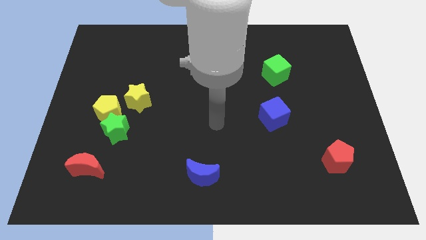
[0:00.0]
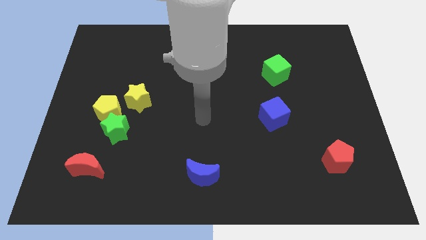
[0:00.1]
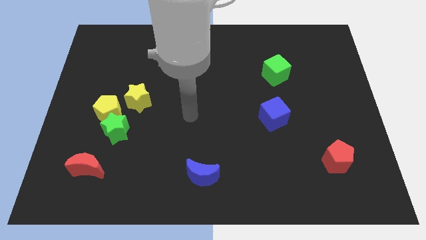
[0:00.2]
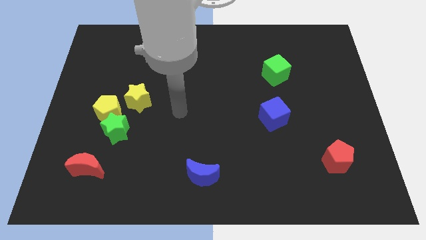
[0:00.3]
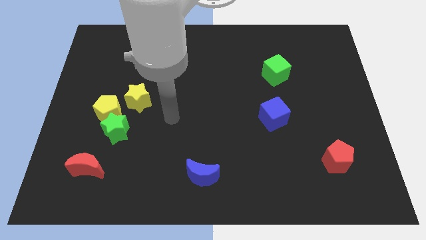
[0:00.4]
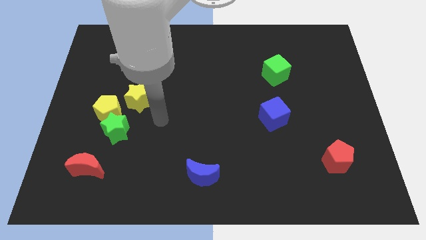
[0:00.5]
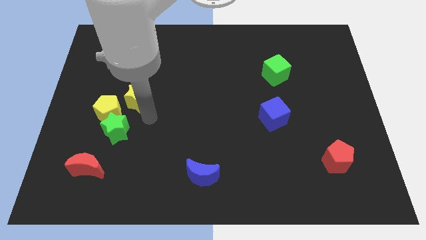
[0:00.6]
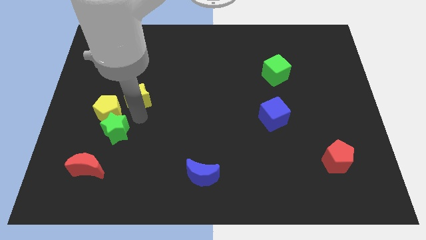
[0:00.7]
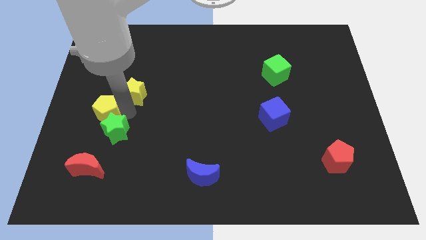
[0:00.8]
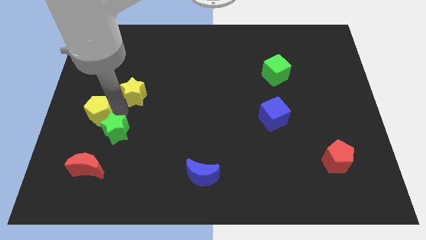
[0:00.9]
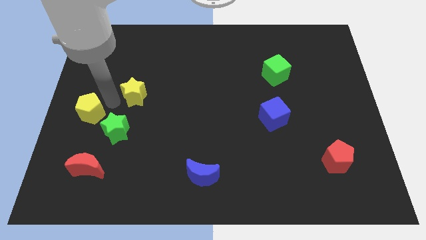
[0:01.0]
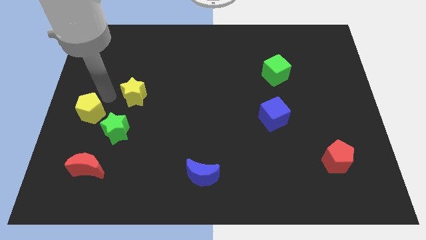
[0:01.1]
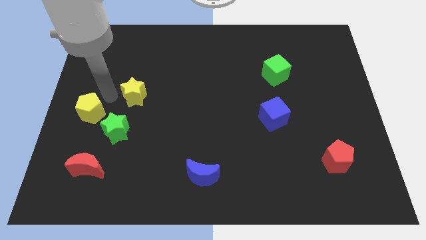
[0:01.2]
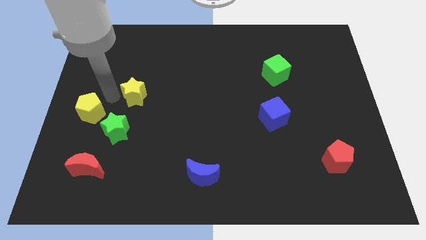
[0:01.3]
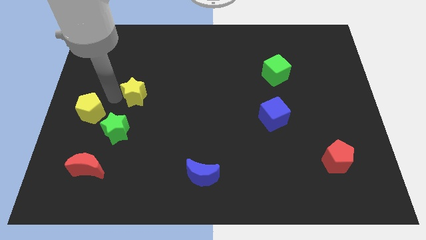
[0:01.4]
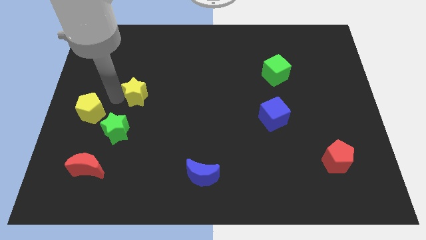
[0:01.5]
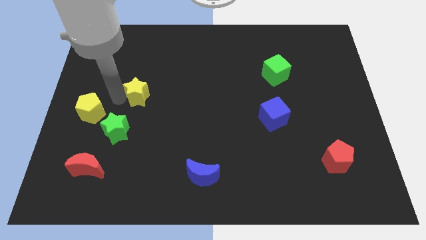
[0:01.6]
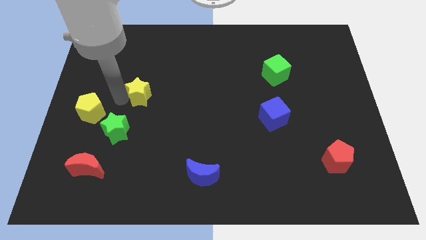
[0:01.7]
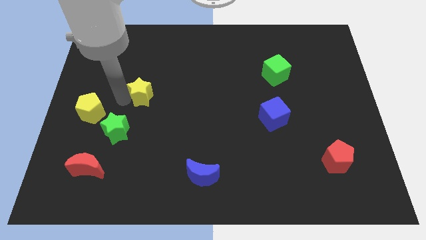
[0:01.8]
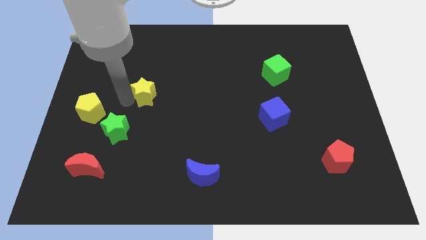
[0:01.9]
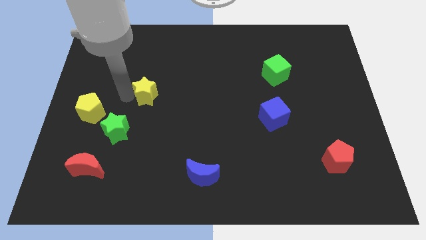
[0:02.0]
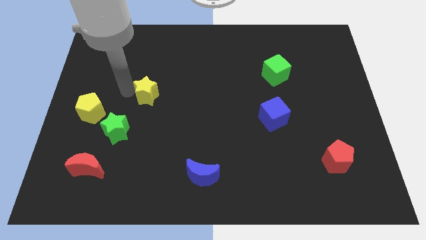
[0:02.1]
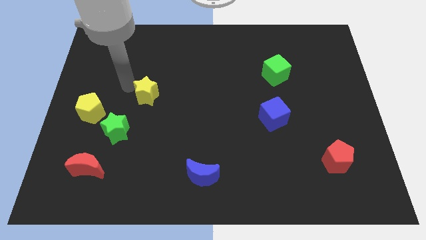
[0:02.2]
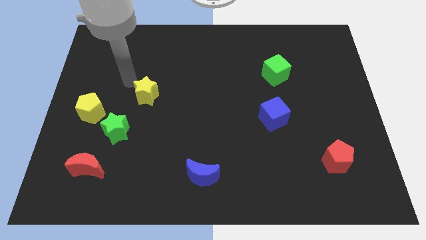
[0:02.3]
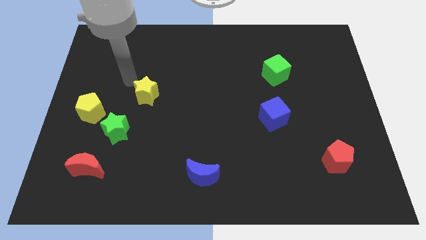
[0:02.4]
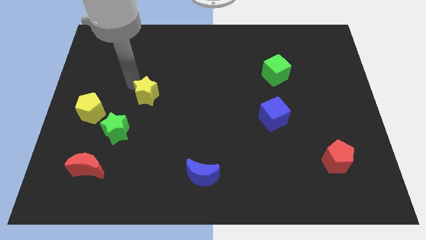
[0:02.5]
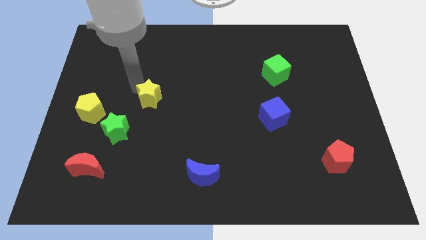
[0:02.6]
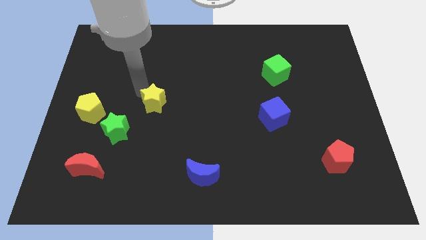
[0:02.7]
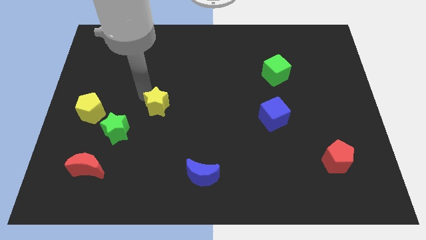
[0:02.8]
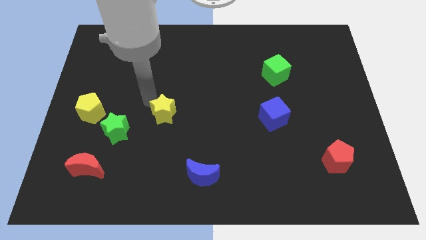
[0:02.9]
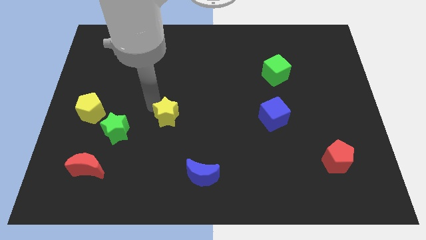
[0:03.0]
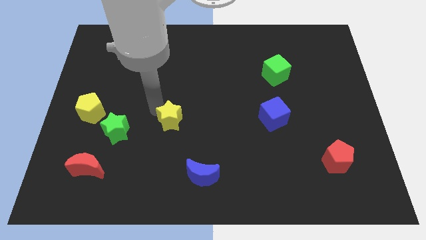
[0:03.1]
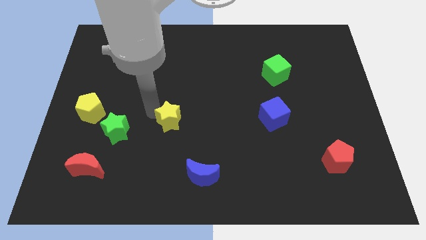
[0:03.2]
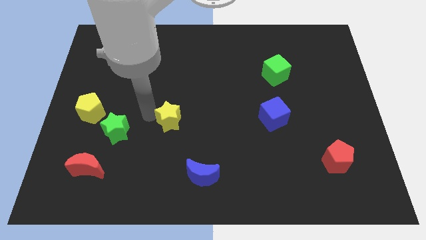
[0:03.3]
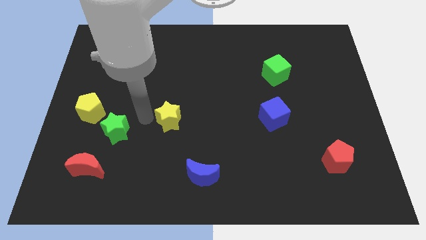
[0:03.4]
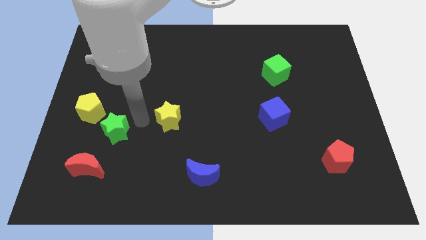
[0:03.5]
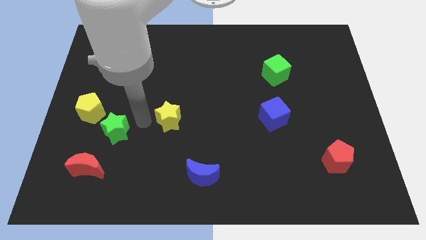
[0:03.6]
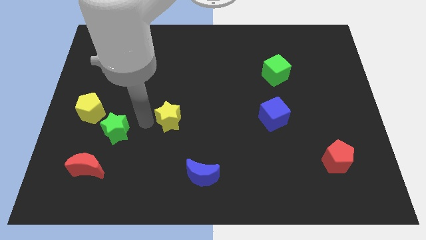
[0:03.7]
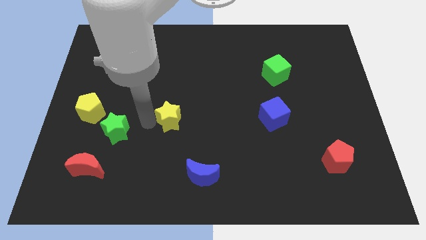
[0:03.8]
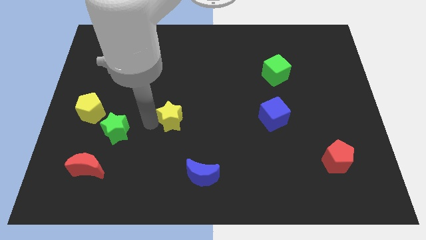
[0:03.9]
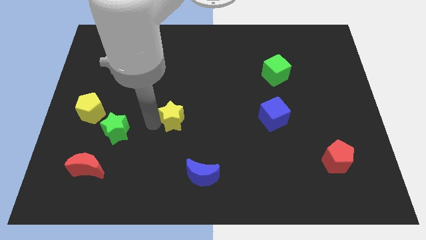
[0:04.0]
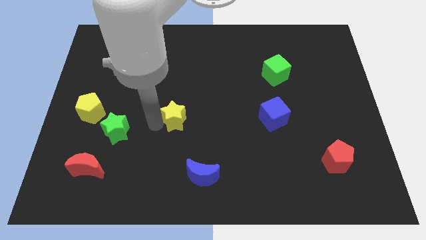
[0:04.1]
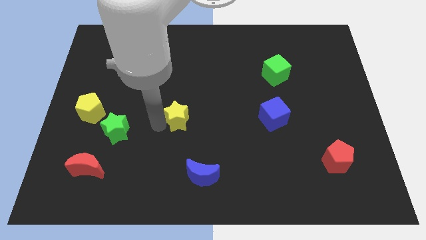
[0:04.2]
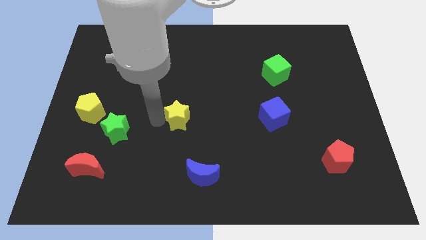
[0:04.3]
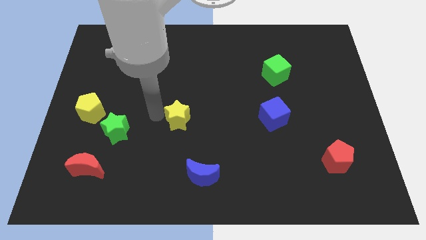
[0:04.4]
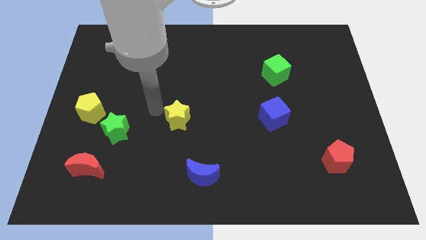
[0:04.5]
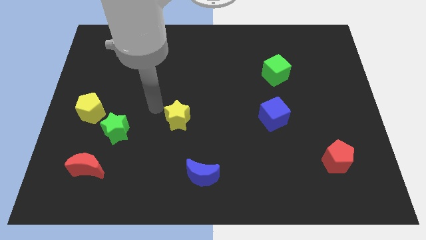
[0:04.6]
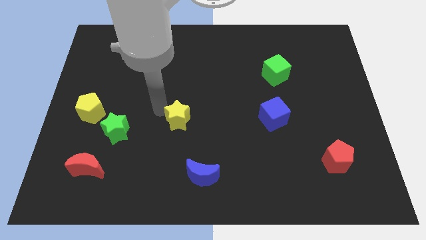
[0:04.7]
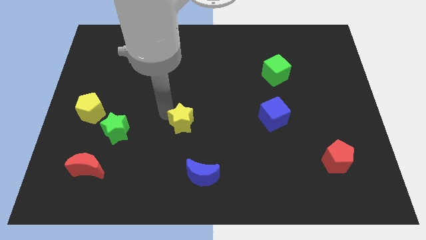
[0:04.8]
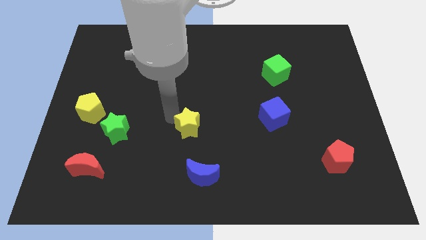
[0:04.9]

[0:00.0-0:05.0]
move the yellow star to the top of the blue moon

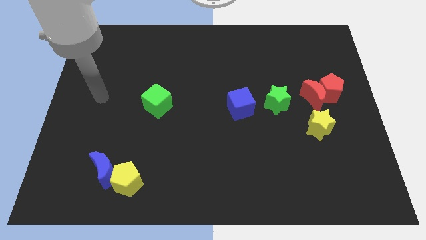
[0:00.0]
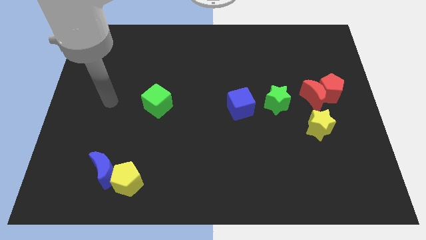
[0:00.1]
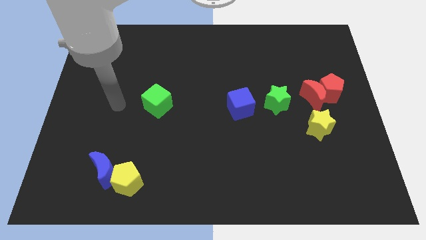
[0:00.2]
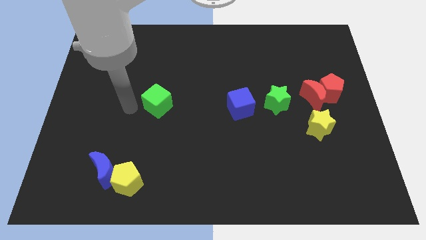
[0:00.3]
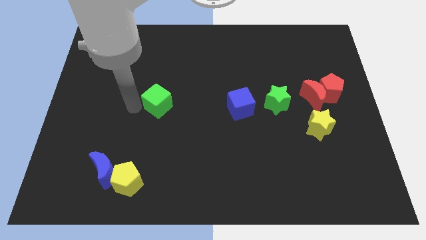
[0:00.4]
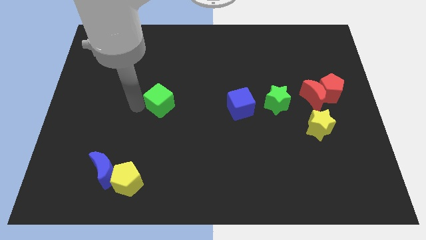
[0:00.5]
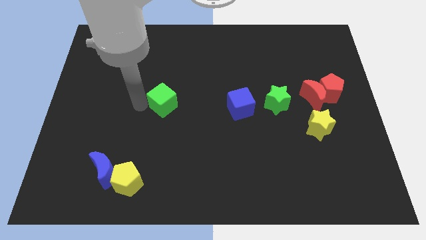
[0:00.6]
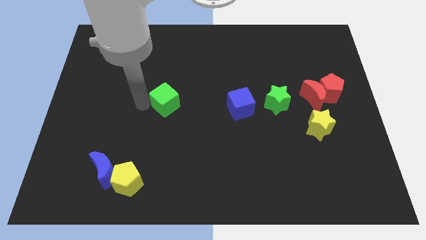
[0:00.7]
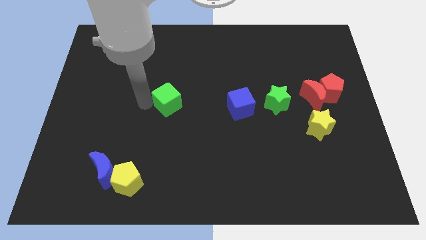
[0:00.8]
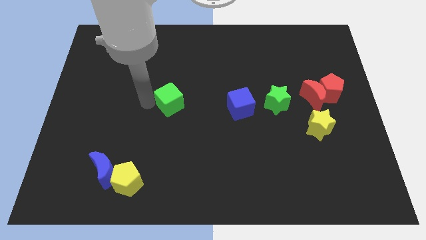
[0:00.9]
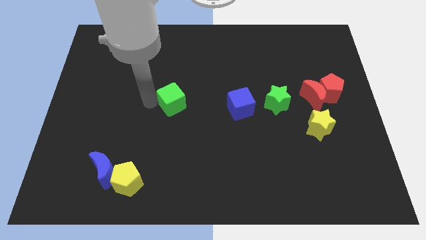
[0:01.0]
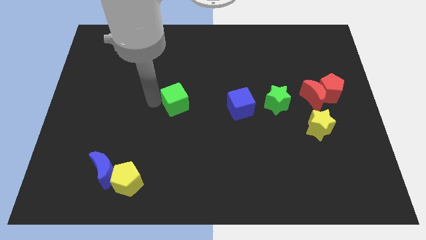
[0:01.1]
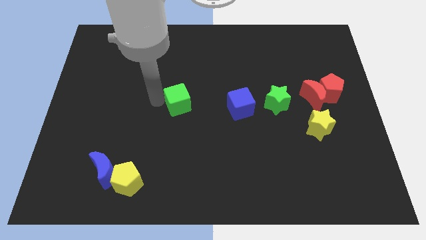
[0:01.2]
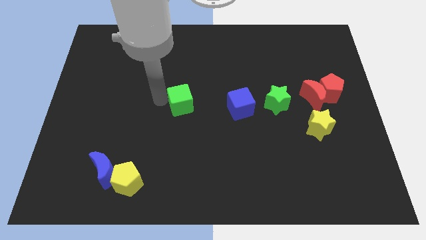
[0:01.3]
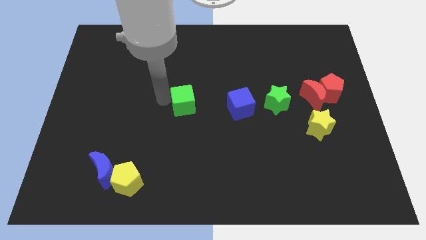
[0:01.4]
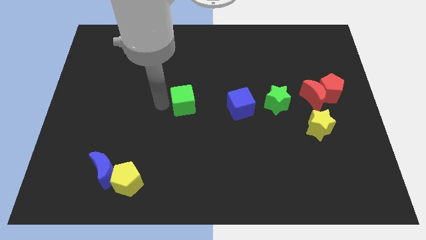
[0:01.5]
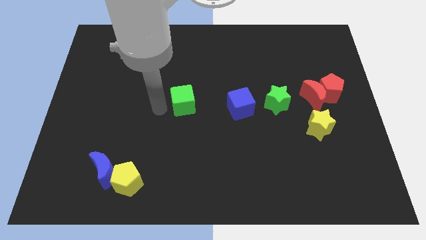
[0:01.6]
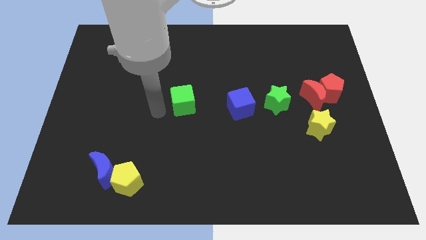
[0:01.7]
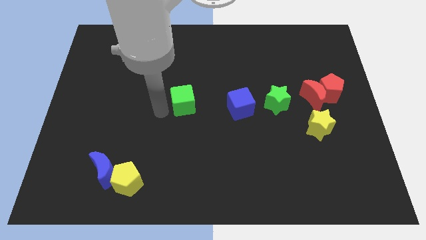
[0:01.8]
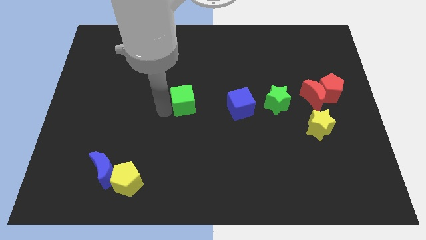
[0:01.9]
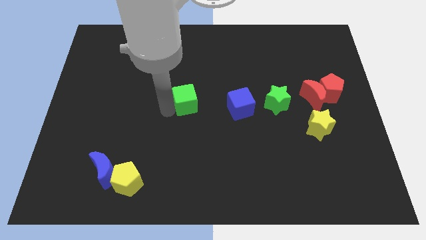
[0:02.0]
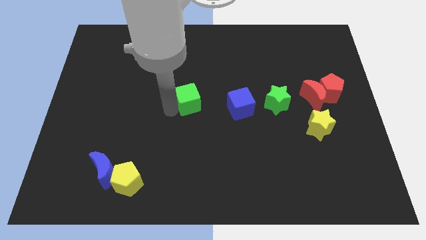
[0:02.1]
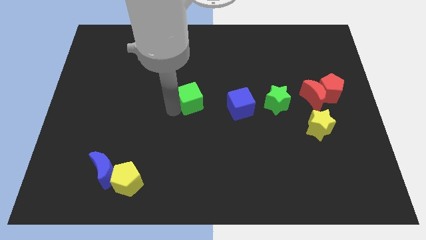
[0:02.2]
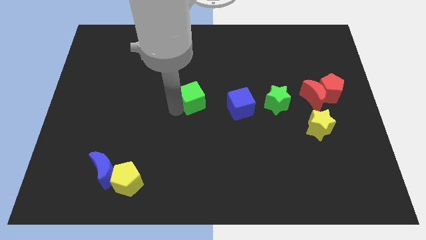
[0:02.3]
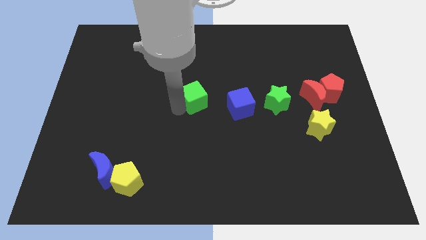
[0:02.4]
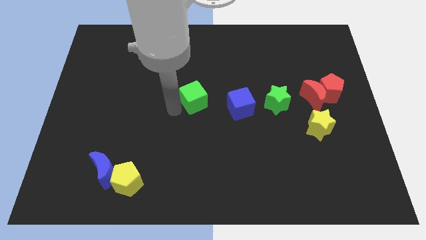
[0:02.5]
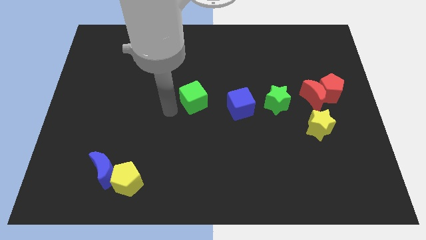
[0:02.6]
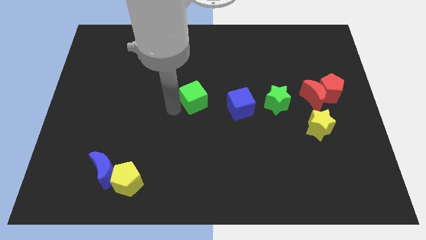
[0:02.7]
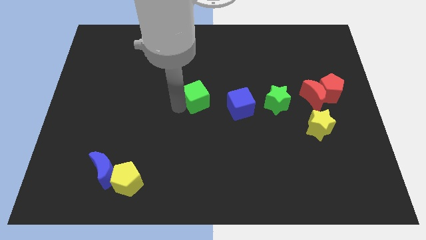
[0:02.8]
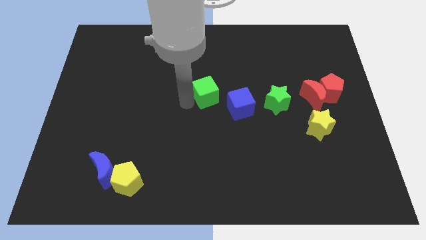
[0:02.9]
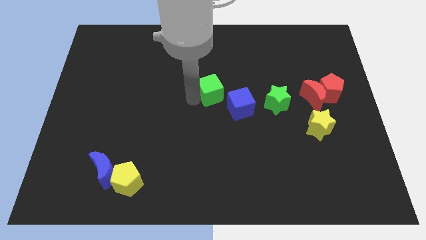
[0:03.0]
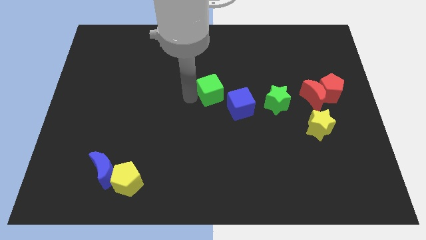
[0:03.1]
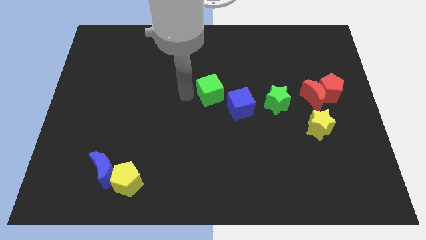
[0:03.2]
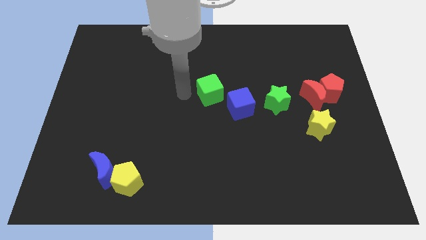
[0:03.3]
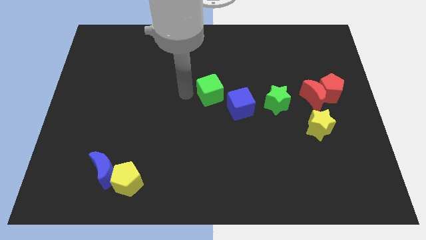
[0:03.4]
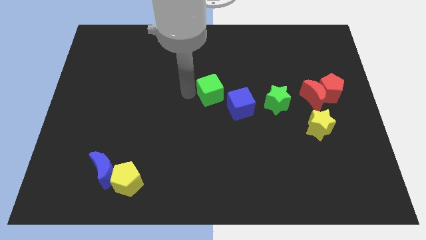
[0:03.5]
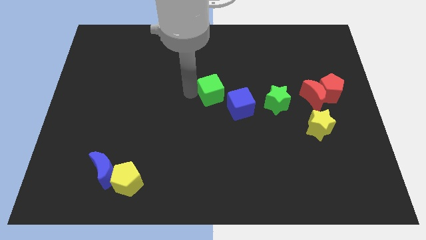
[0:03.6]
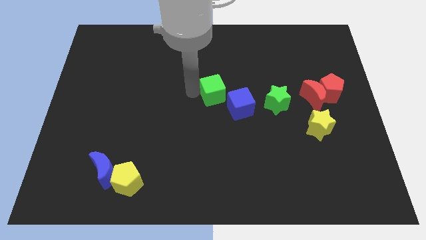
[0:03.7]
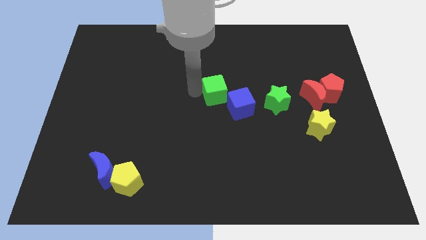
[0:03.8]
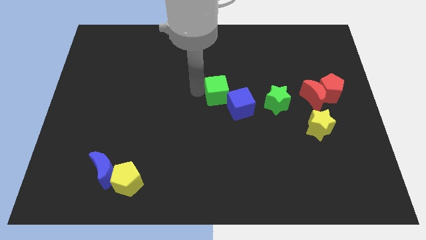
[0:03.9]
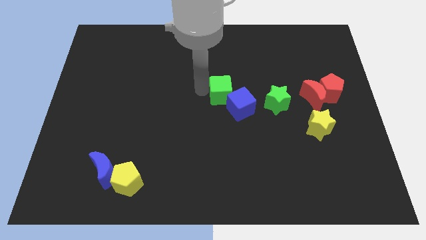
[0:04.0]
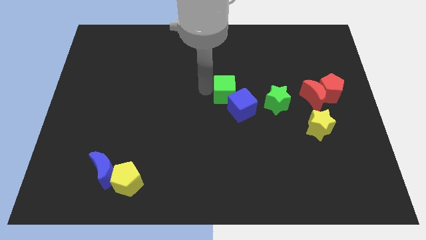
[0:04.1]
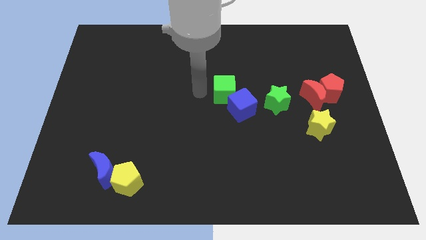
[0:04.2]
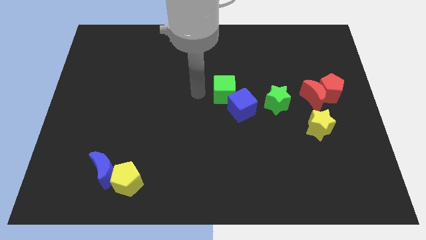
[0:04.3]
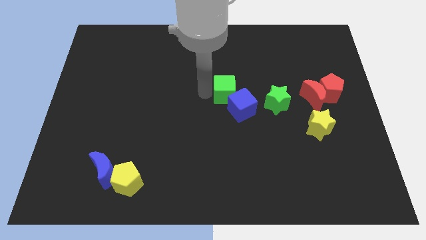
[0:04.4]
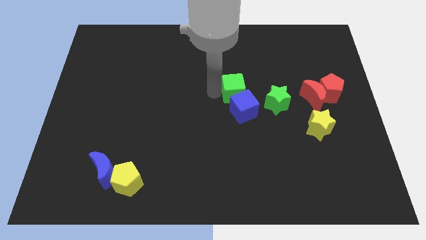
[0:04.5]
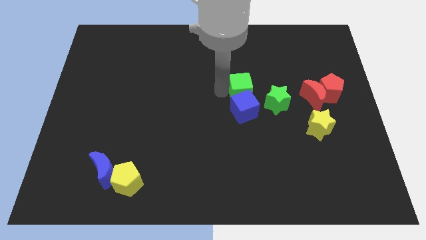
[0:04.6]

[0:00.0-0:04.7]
slide the green cube diagonally up and to the right of the blue cube
